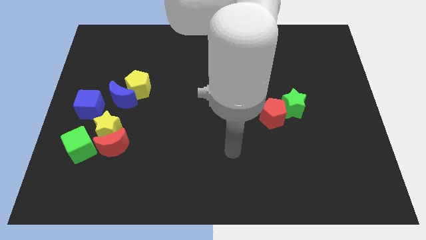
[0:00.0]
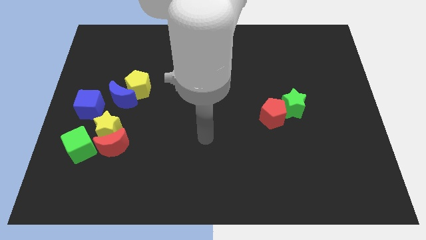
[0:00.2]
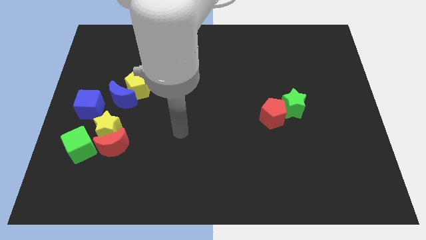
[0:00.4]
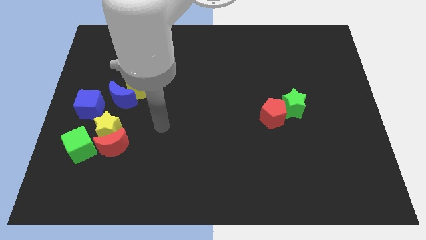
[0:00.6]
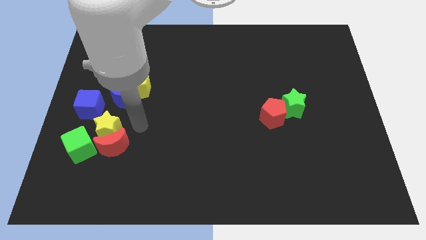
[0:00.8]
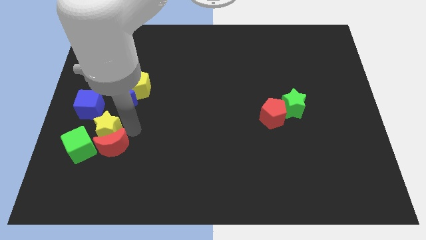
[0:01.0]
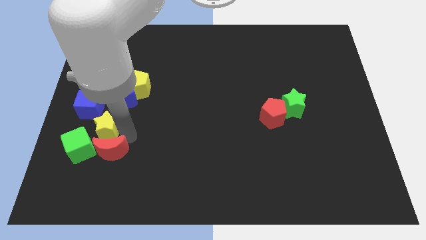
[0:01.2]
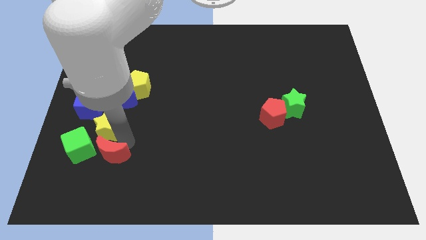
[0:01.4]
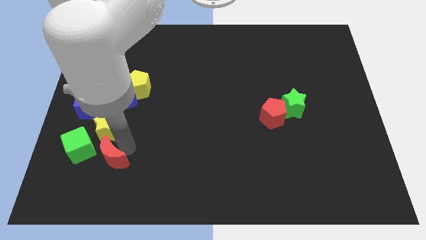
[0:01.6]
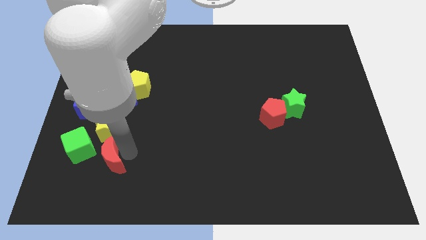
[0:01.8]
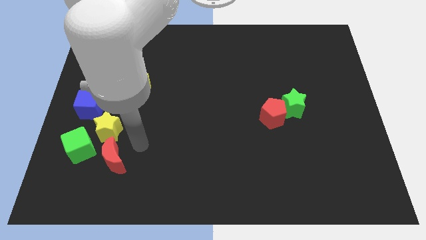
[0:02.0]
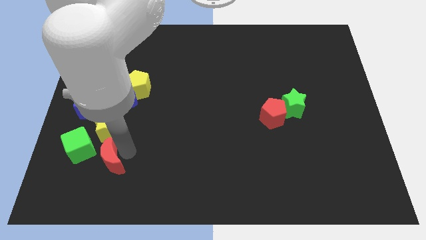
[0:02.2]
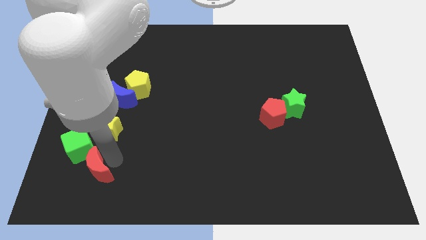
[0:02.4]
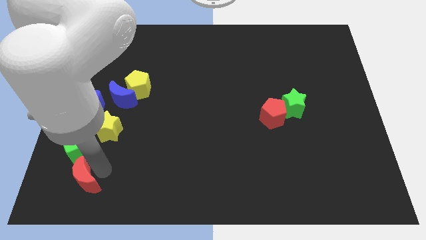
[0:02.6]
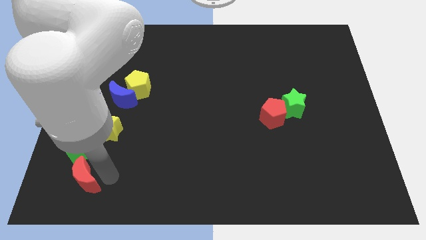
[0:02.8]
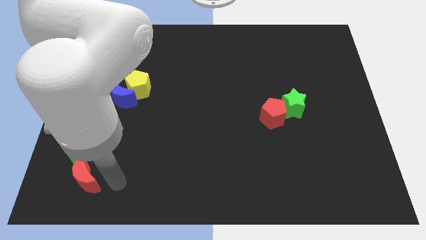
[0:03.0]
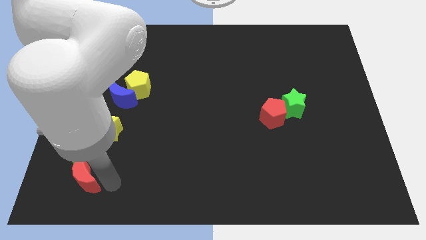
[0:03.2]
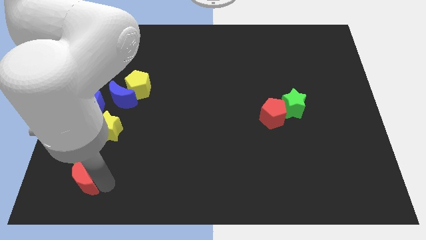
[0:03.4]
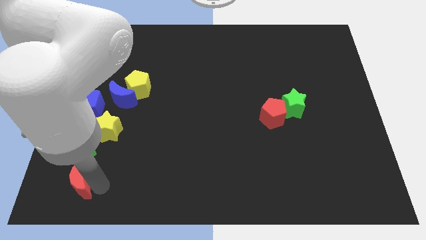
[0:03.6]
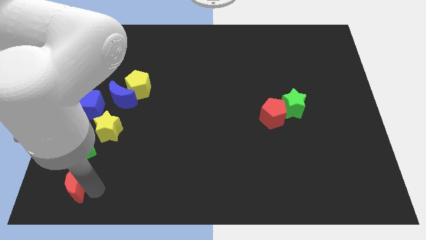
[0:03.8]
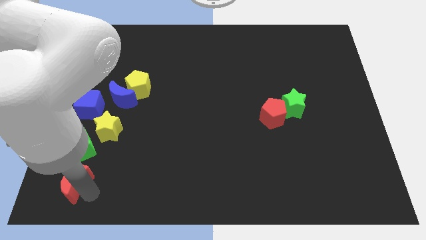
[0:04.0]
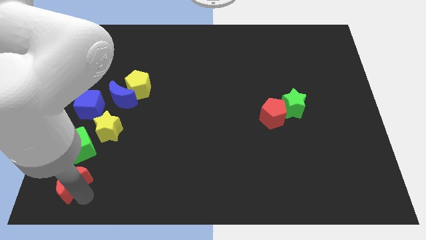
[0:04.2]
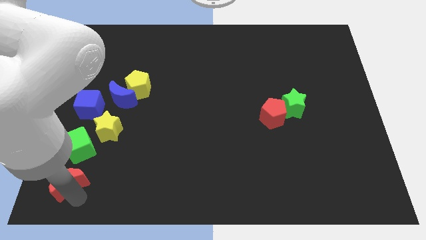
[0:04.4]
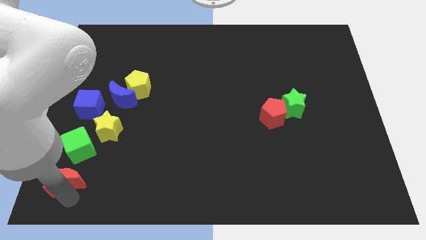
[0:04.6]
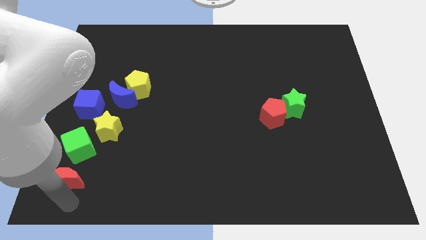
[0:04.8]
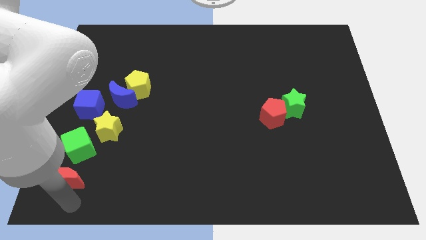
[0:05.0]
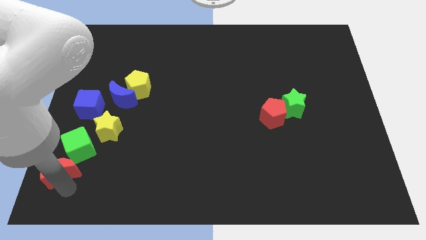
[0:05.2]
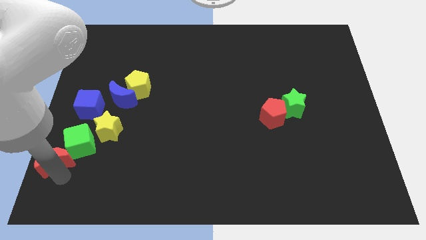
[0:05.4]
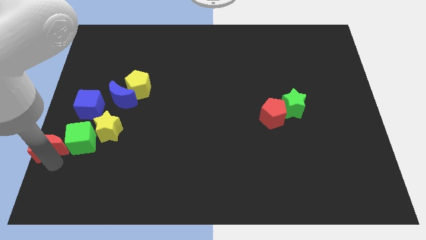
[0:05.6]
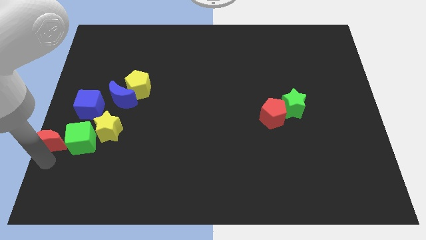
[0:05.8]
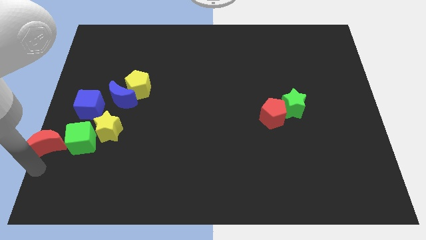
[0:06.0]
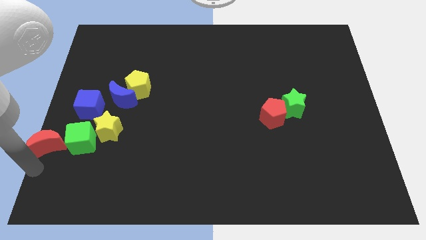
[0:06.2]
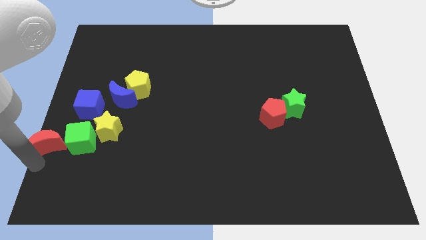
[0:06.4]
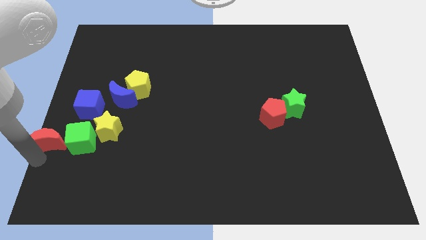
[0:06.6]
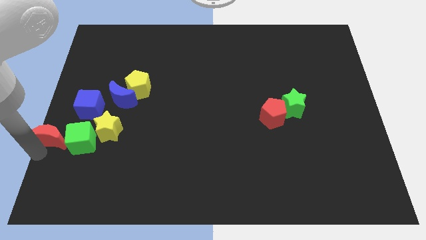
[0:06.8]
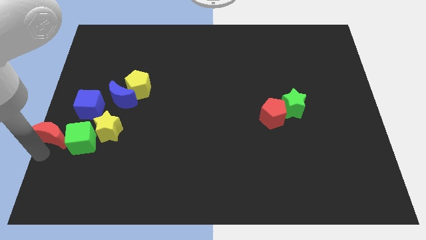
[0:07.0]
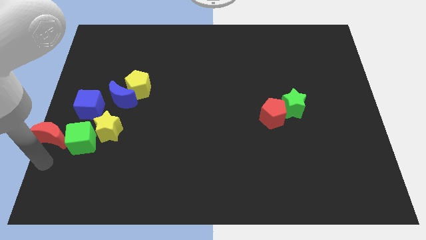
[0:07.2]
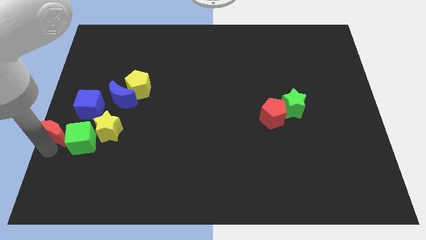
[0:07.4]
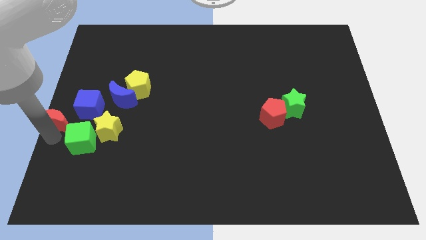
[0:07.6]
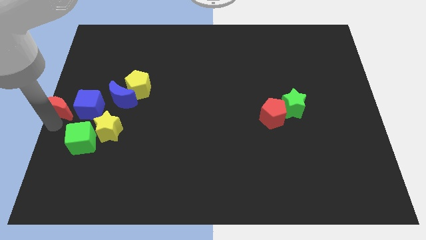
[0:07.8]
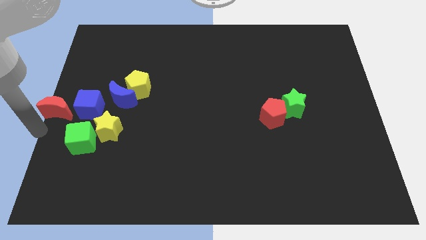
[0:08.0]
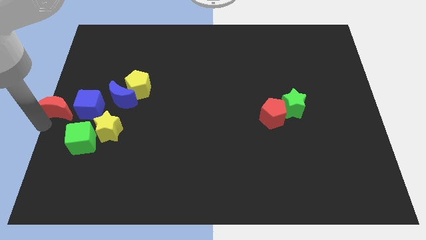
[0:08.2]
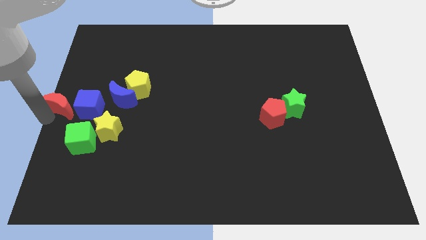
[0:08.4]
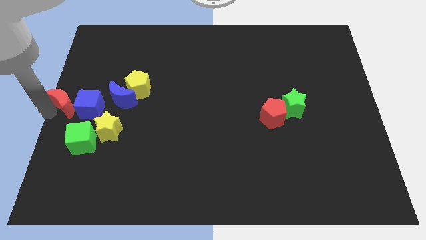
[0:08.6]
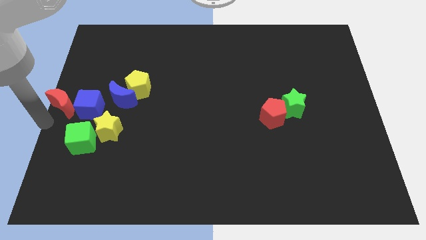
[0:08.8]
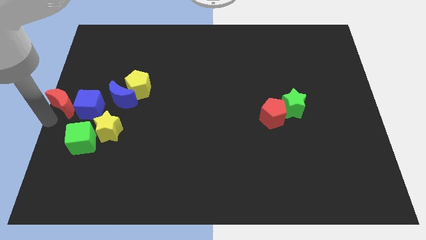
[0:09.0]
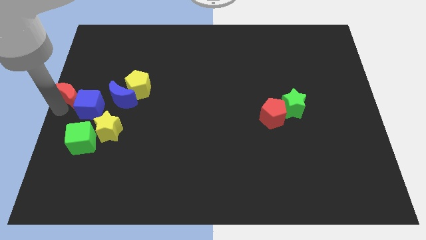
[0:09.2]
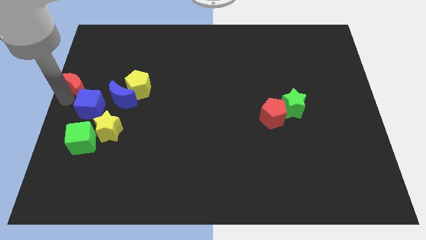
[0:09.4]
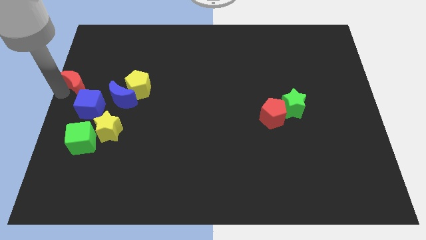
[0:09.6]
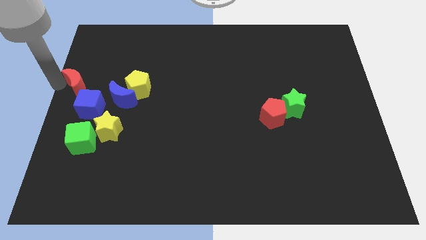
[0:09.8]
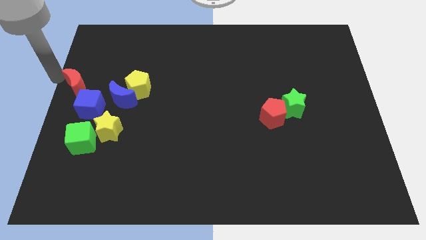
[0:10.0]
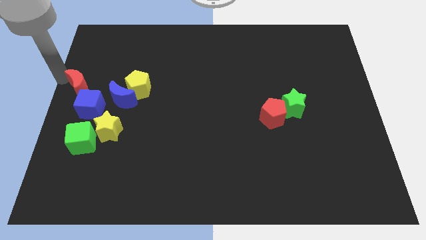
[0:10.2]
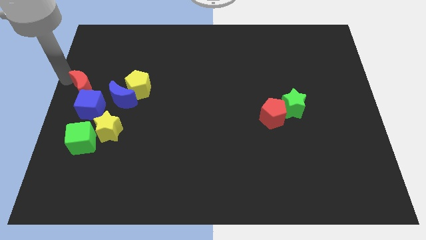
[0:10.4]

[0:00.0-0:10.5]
slide the red moon to the top side of the green cube

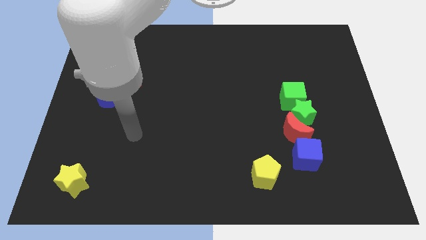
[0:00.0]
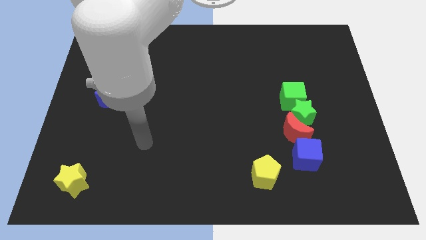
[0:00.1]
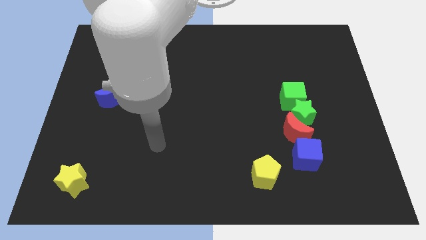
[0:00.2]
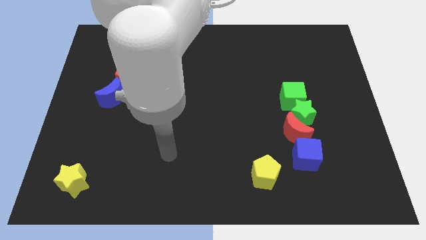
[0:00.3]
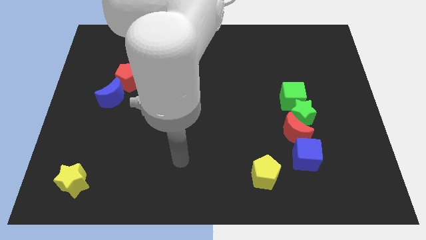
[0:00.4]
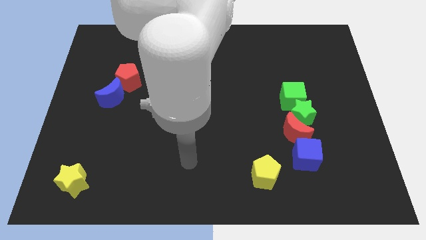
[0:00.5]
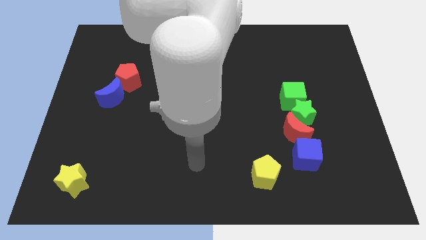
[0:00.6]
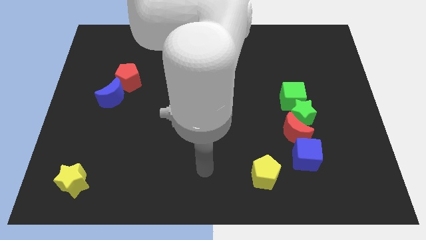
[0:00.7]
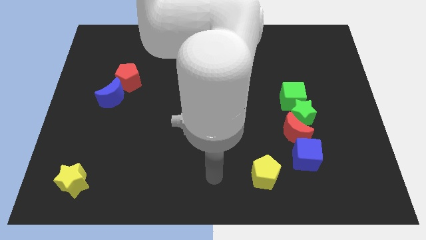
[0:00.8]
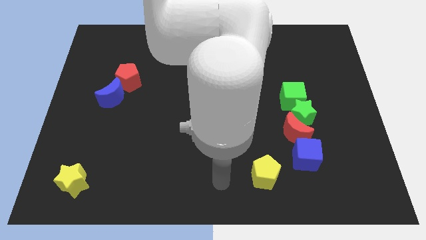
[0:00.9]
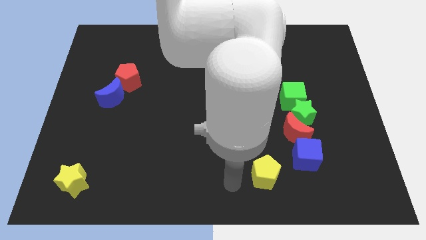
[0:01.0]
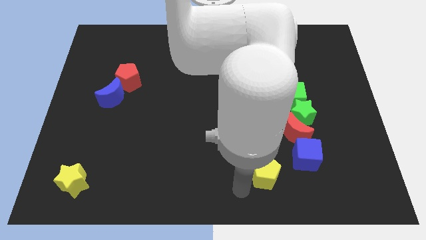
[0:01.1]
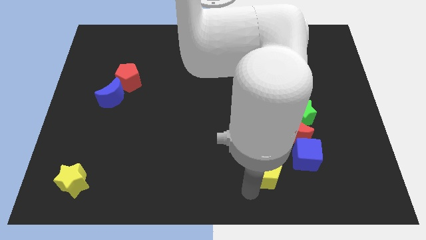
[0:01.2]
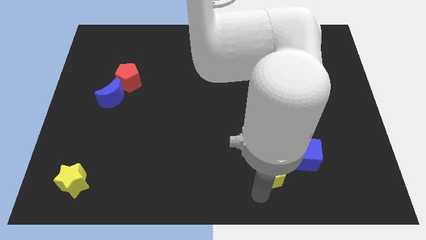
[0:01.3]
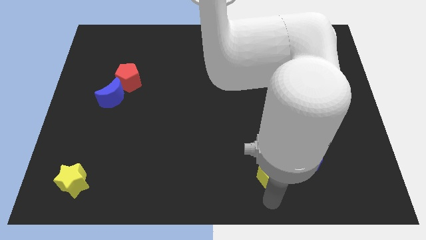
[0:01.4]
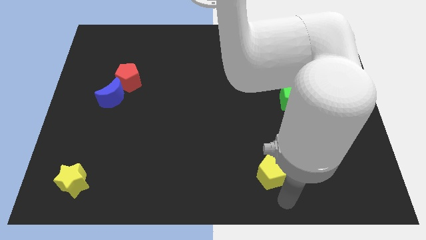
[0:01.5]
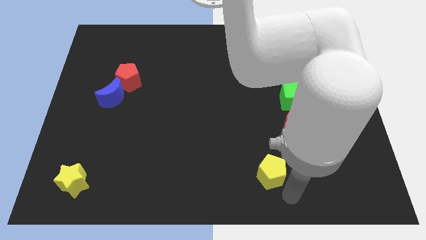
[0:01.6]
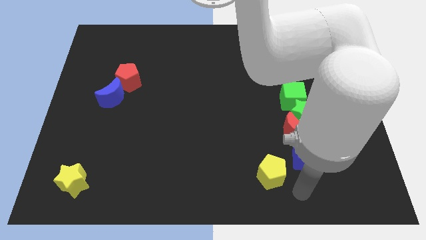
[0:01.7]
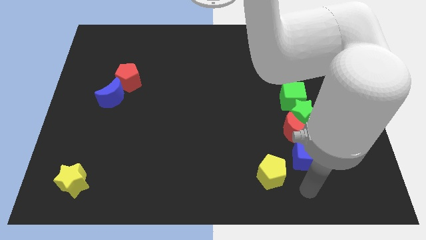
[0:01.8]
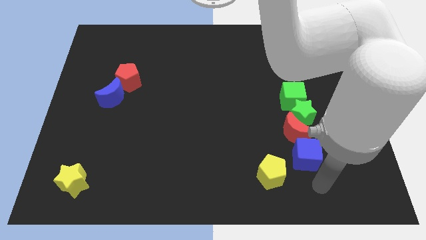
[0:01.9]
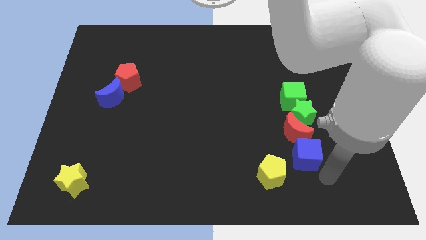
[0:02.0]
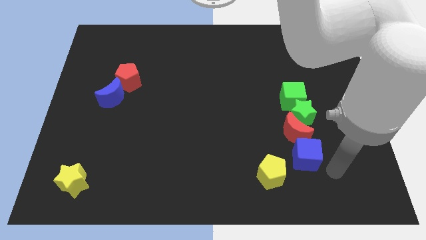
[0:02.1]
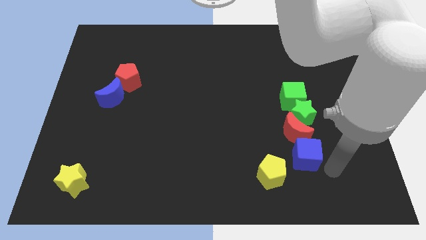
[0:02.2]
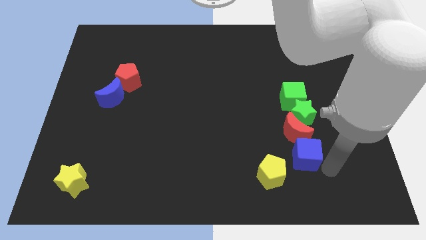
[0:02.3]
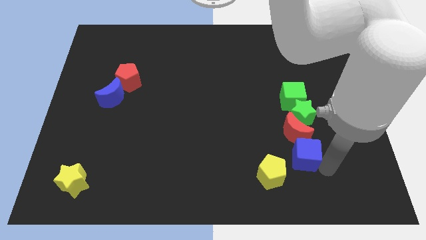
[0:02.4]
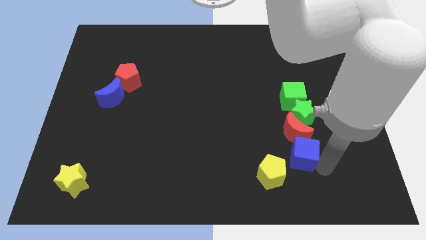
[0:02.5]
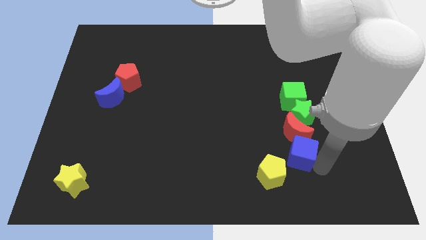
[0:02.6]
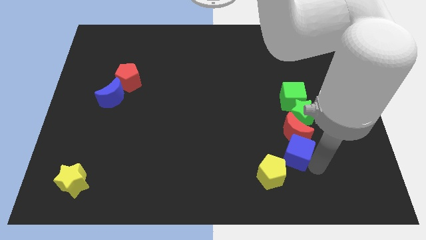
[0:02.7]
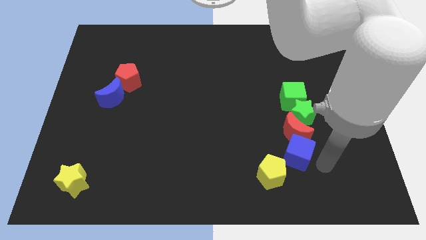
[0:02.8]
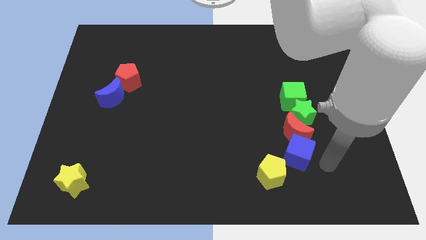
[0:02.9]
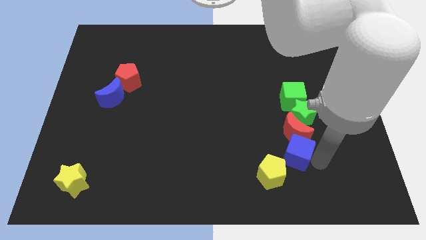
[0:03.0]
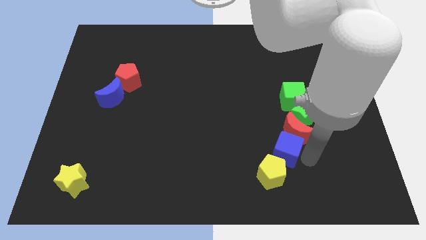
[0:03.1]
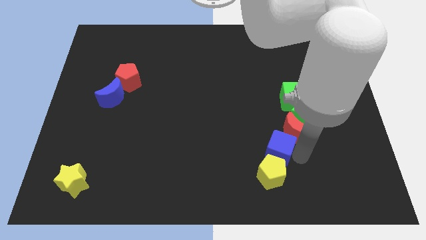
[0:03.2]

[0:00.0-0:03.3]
slide the blue cube to the left of the red moon
